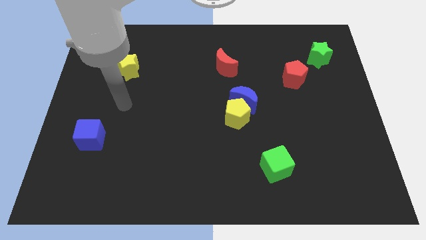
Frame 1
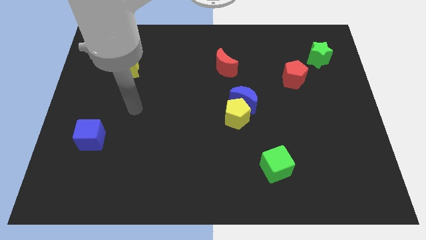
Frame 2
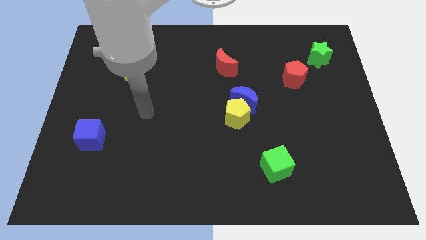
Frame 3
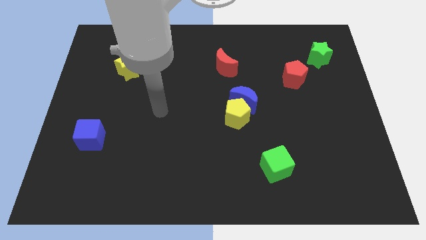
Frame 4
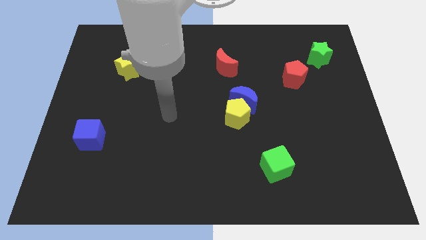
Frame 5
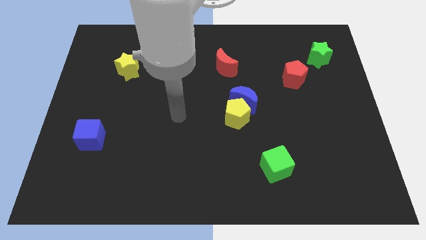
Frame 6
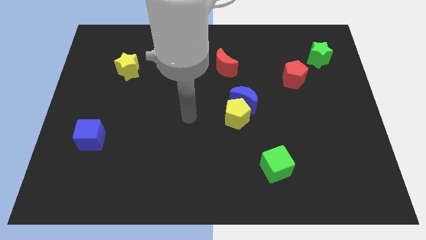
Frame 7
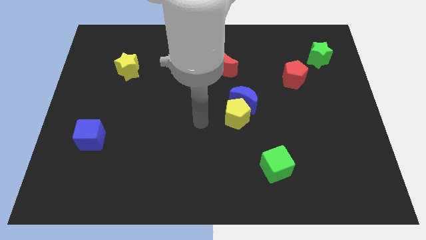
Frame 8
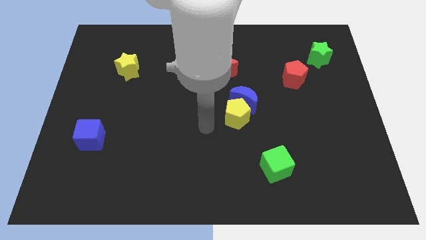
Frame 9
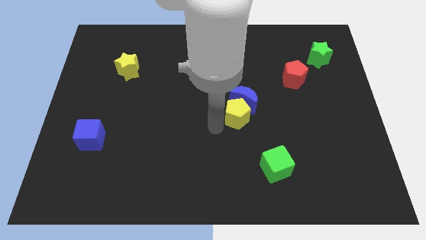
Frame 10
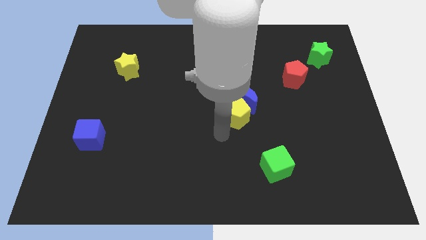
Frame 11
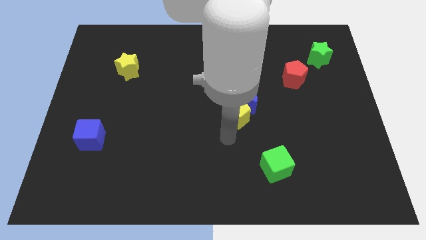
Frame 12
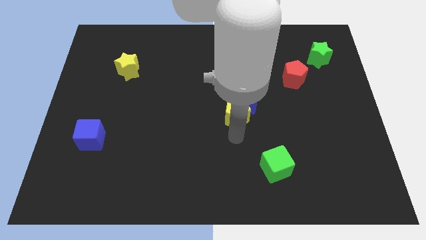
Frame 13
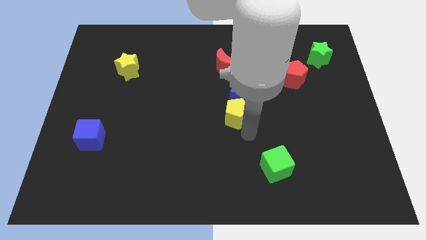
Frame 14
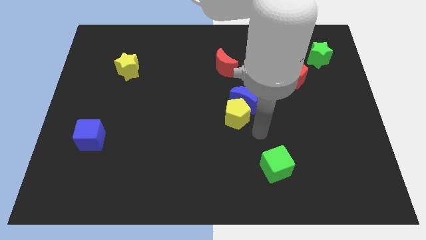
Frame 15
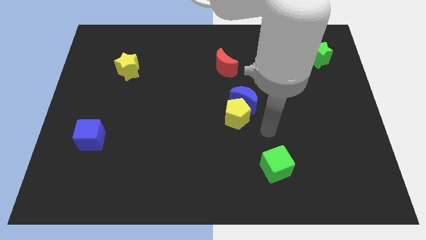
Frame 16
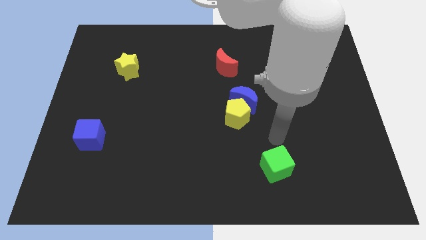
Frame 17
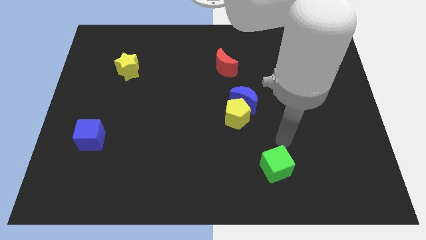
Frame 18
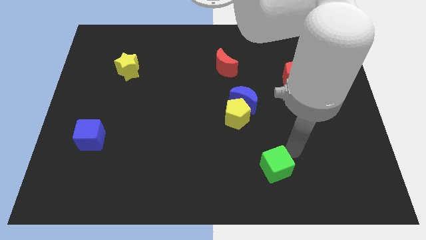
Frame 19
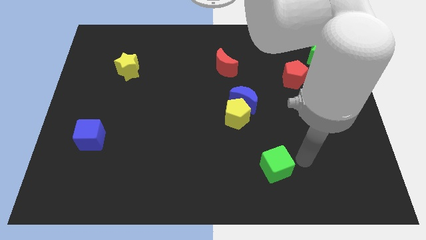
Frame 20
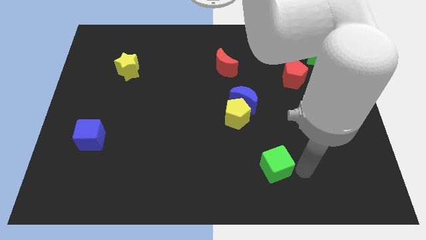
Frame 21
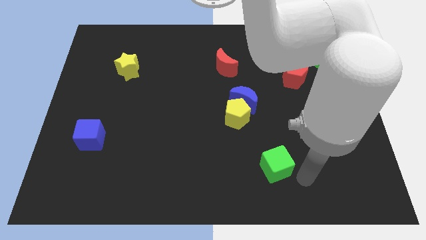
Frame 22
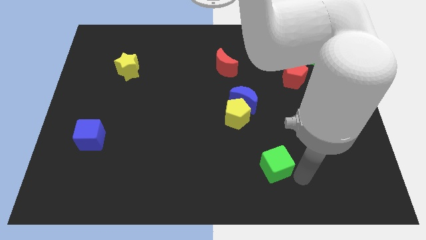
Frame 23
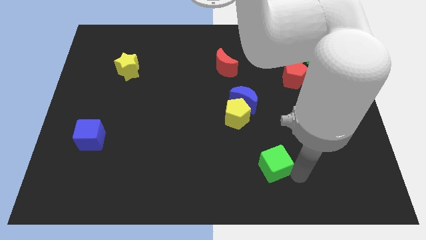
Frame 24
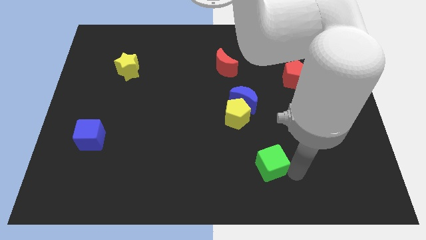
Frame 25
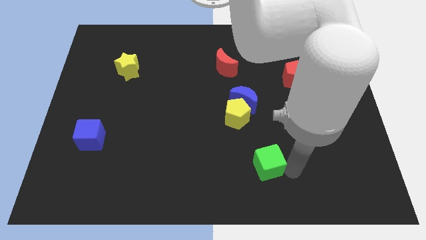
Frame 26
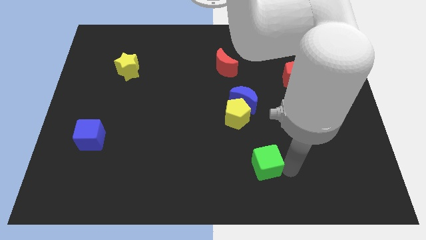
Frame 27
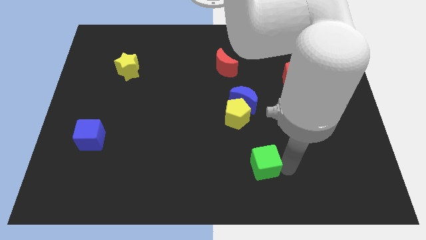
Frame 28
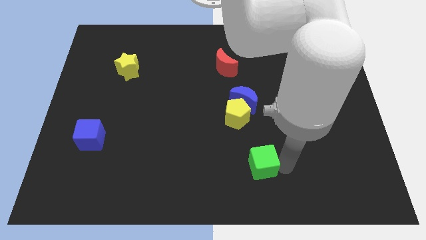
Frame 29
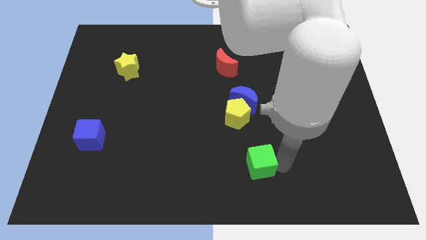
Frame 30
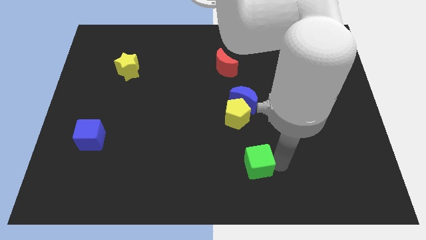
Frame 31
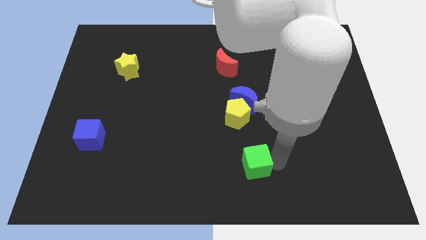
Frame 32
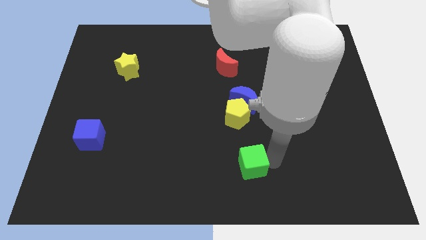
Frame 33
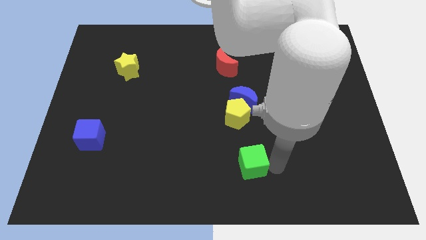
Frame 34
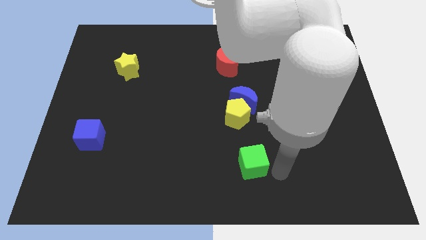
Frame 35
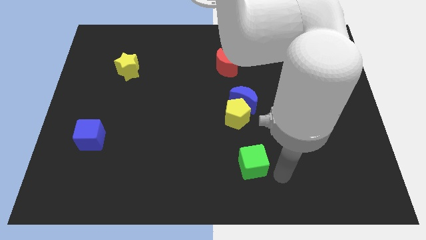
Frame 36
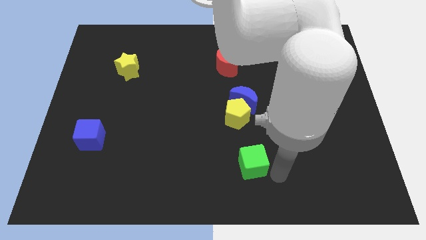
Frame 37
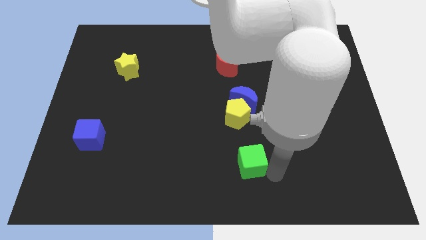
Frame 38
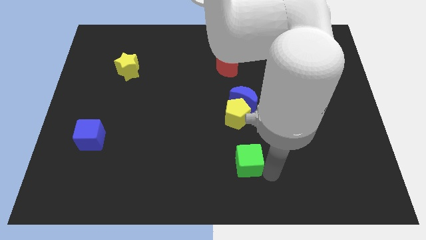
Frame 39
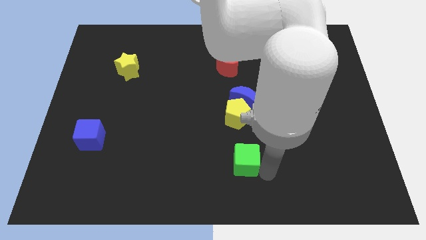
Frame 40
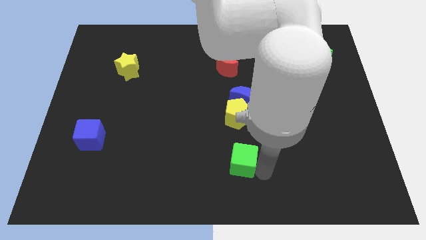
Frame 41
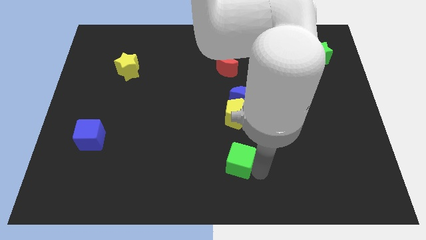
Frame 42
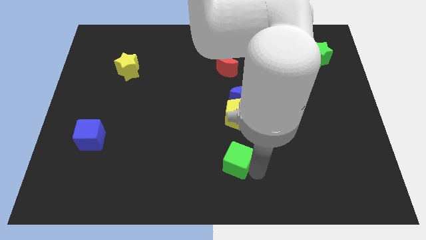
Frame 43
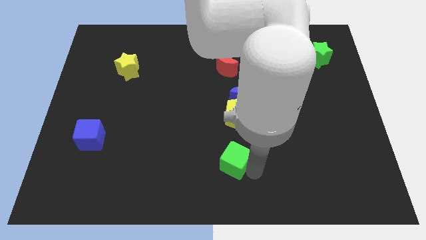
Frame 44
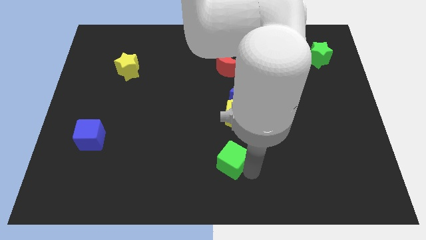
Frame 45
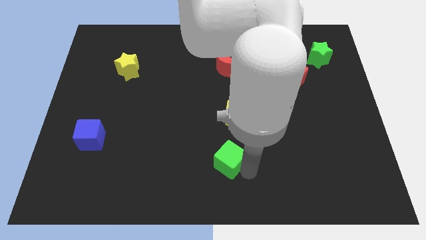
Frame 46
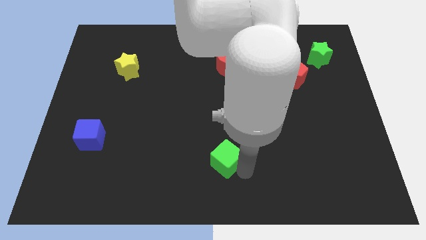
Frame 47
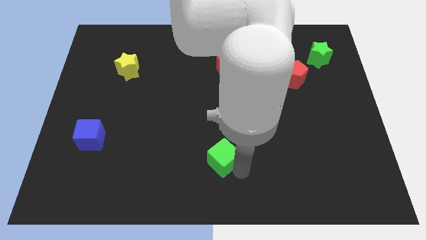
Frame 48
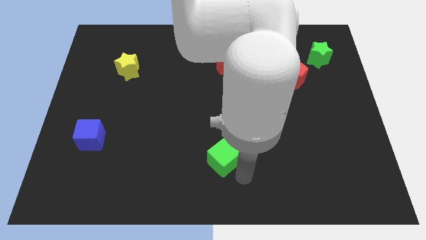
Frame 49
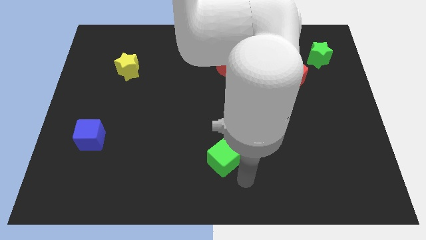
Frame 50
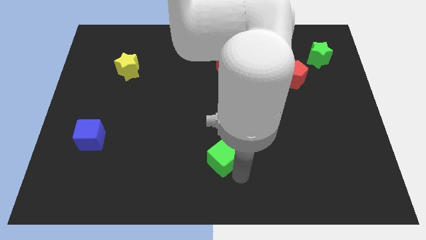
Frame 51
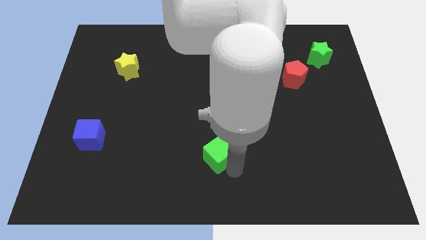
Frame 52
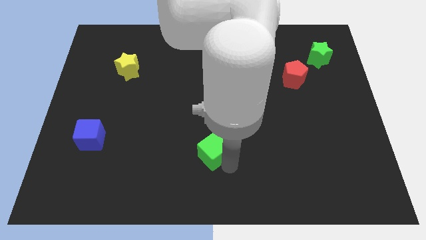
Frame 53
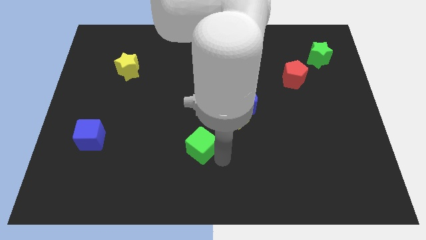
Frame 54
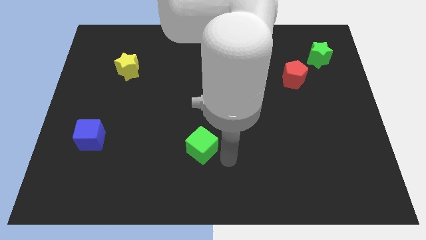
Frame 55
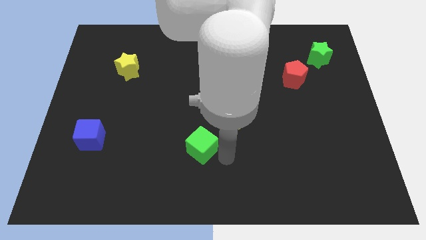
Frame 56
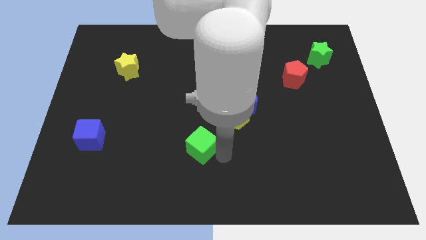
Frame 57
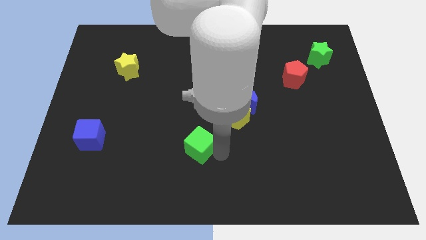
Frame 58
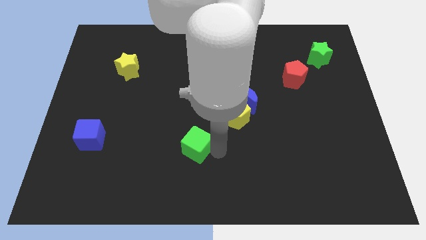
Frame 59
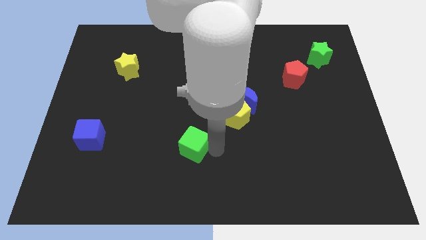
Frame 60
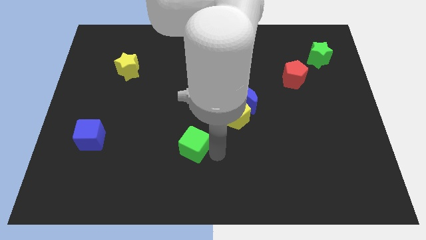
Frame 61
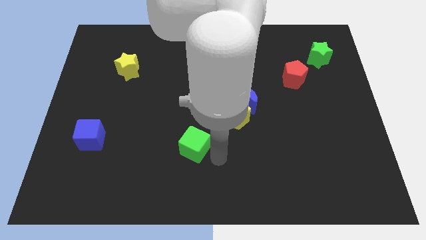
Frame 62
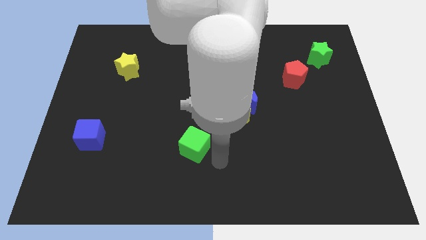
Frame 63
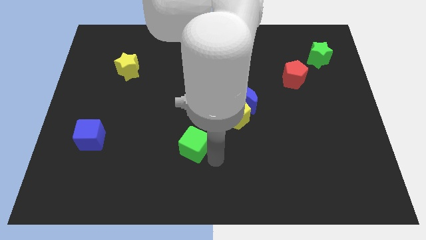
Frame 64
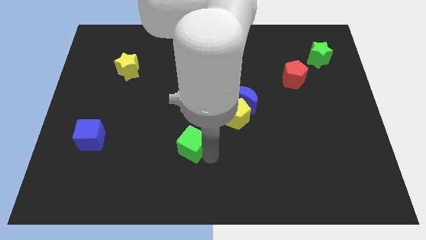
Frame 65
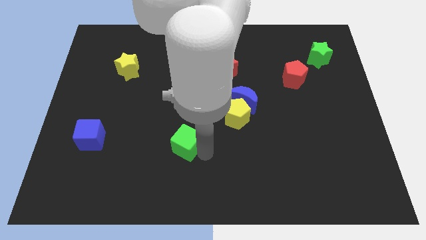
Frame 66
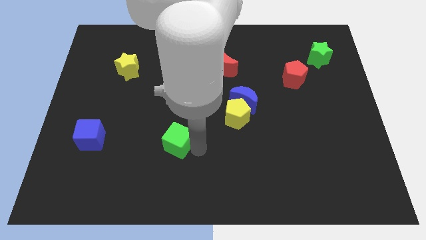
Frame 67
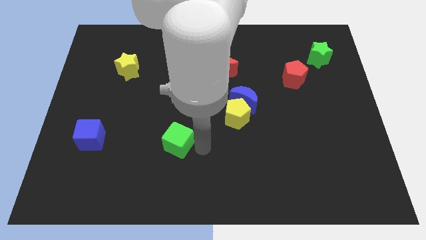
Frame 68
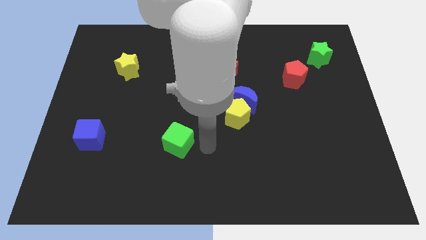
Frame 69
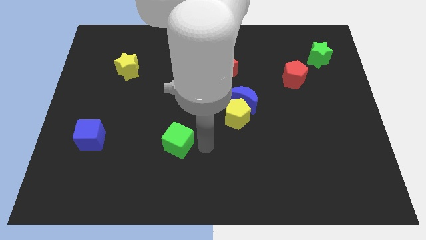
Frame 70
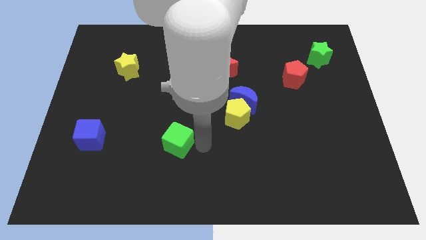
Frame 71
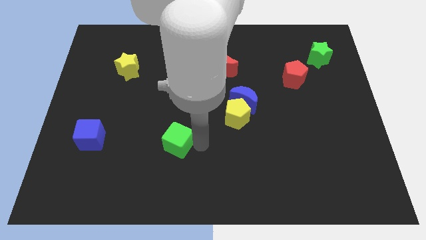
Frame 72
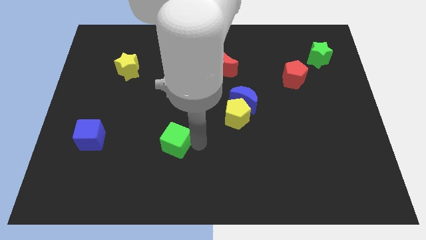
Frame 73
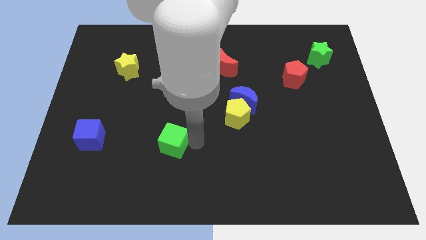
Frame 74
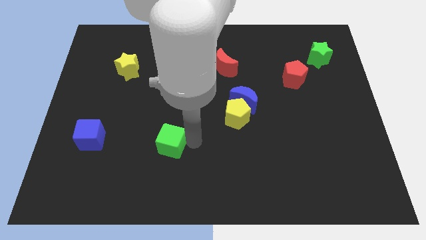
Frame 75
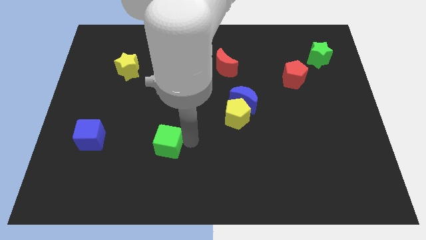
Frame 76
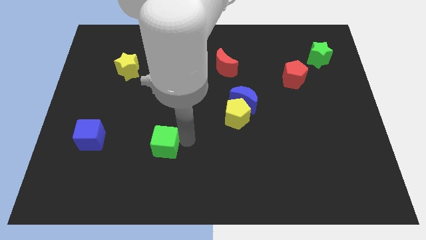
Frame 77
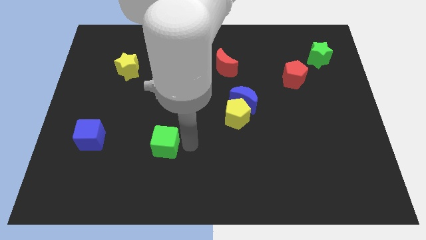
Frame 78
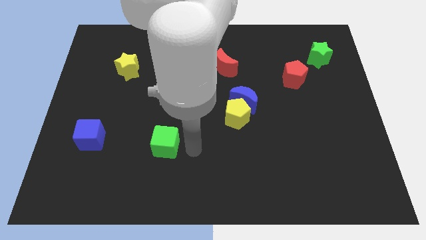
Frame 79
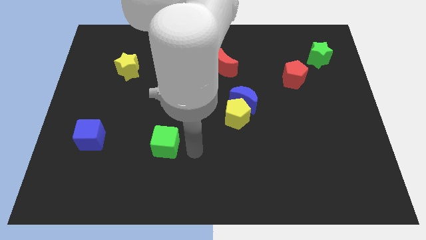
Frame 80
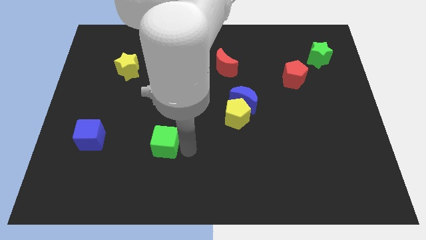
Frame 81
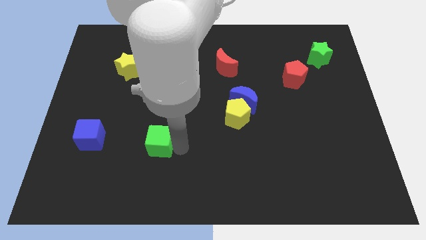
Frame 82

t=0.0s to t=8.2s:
move the green cube just right of the blue cube
